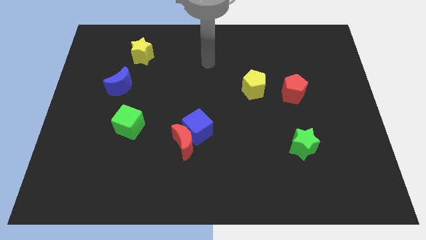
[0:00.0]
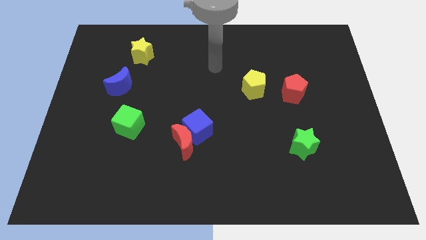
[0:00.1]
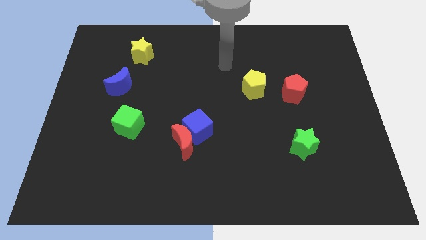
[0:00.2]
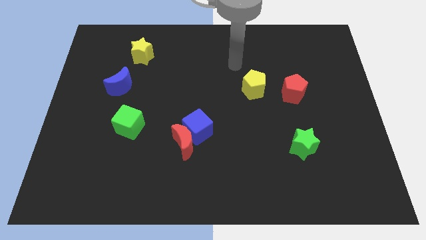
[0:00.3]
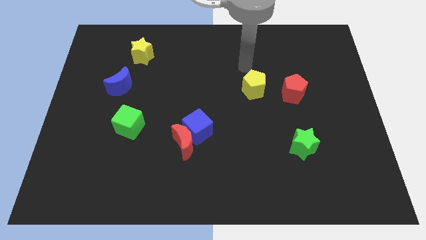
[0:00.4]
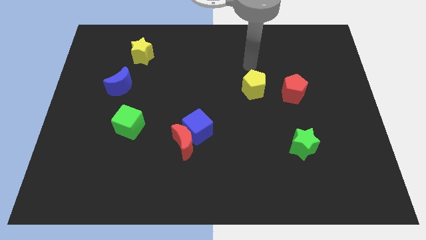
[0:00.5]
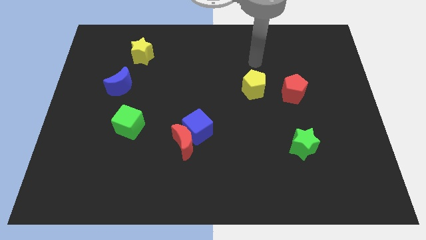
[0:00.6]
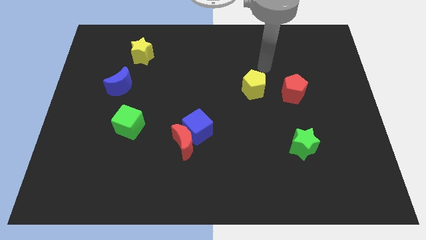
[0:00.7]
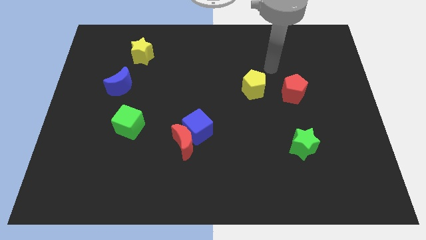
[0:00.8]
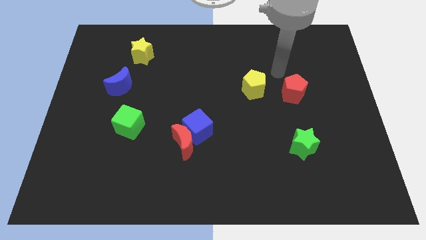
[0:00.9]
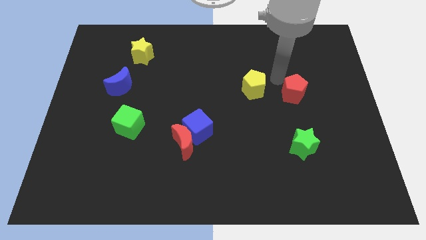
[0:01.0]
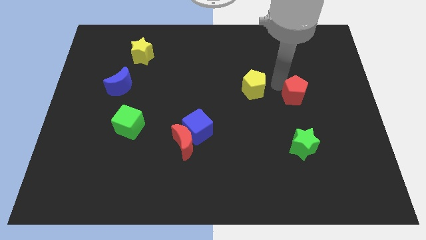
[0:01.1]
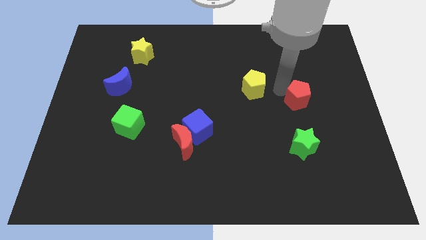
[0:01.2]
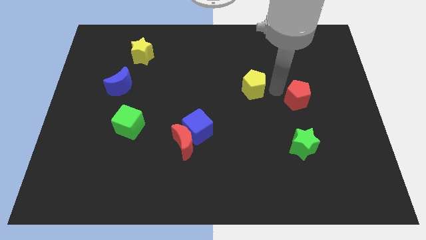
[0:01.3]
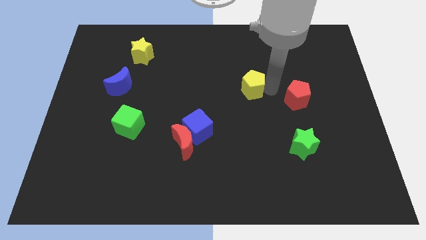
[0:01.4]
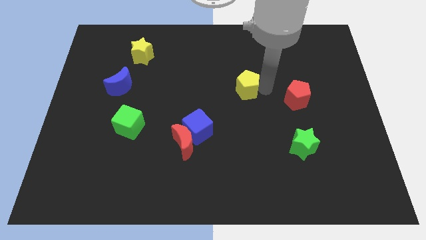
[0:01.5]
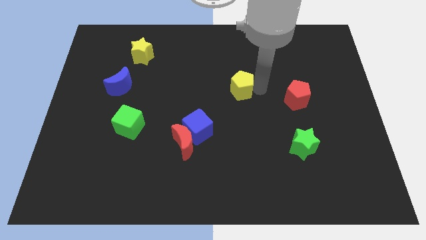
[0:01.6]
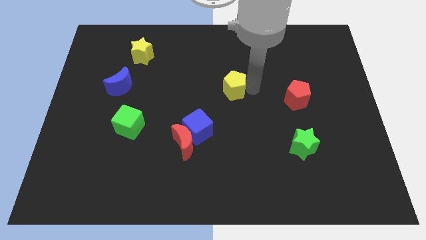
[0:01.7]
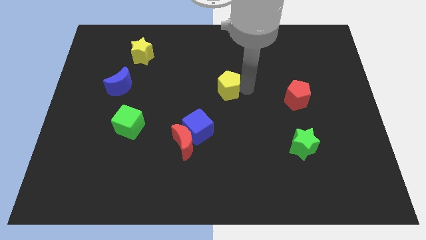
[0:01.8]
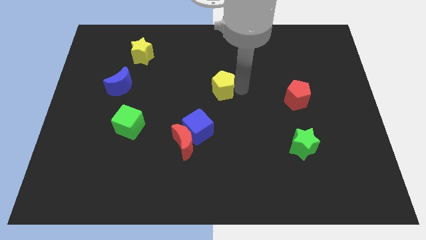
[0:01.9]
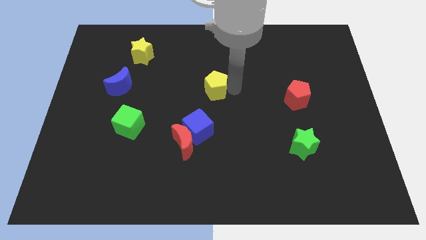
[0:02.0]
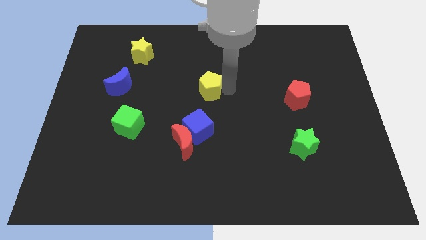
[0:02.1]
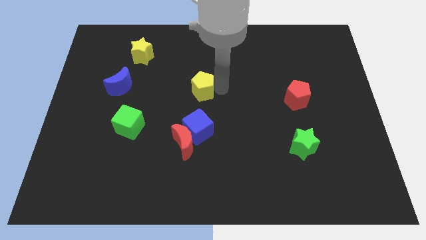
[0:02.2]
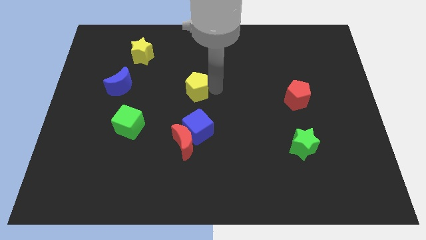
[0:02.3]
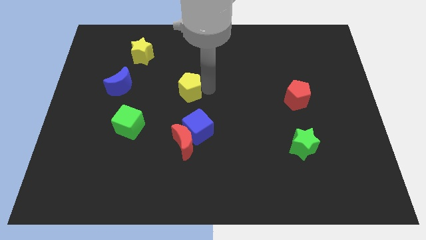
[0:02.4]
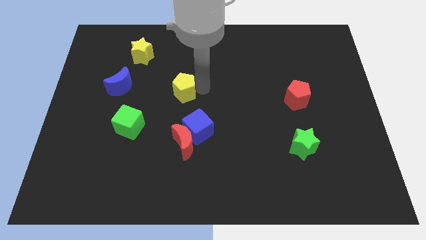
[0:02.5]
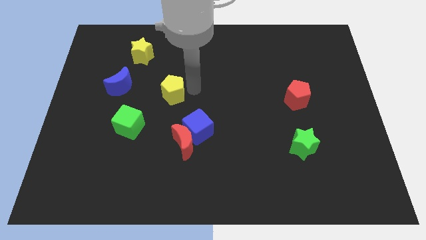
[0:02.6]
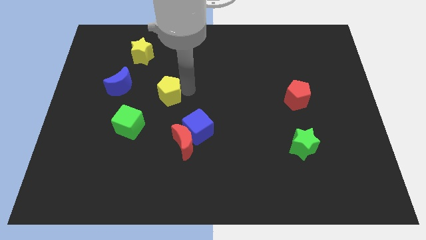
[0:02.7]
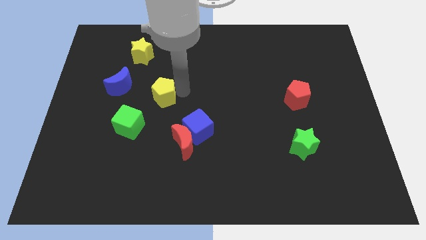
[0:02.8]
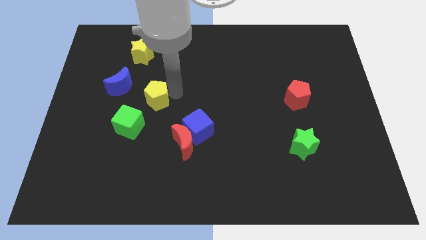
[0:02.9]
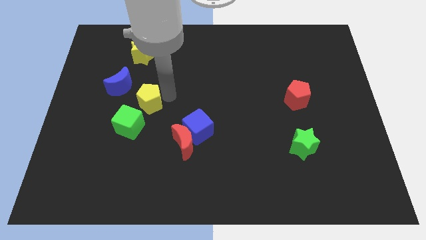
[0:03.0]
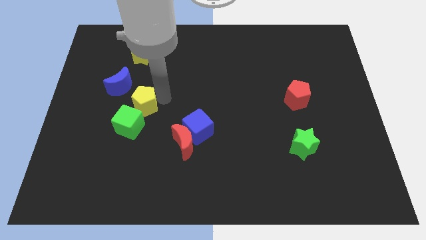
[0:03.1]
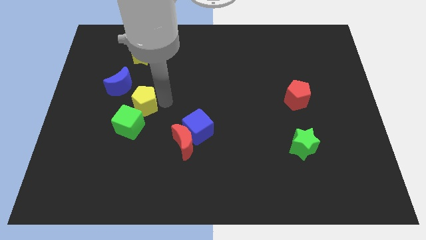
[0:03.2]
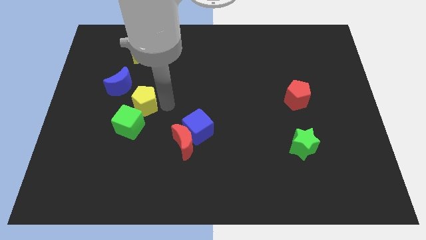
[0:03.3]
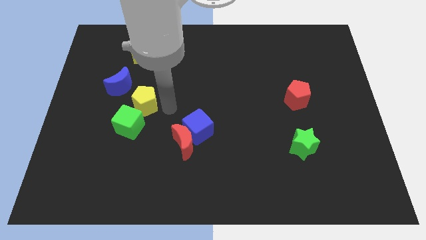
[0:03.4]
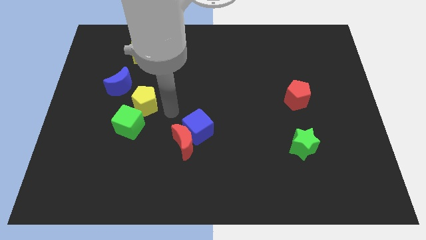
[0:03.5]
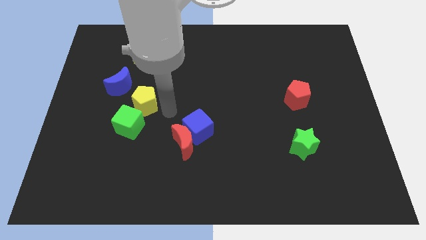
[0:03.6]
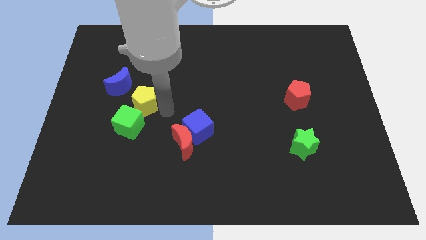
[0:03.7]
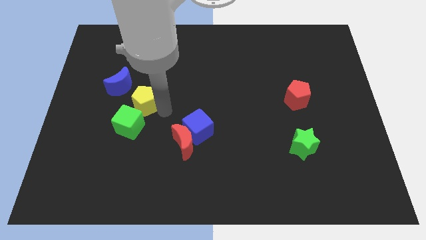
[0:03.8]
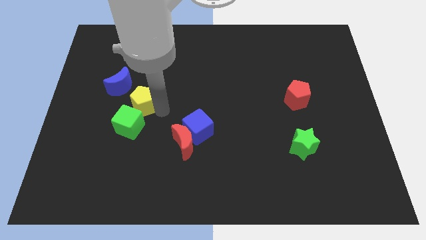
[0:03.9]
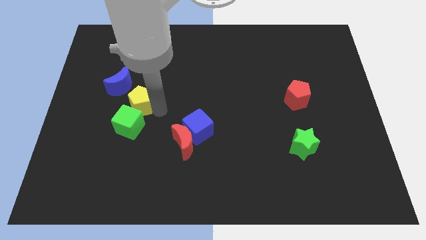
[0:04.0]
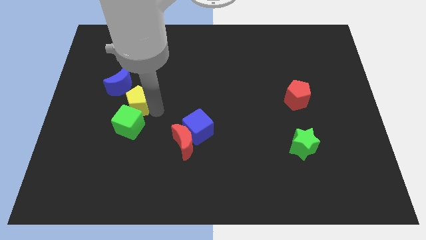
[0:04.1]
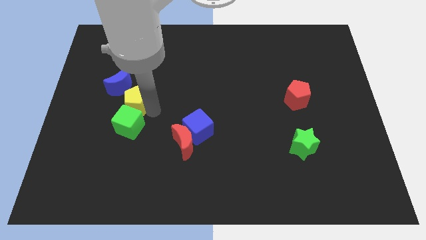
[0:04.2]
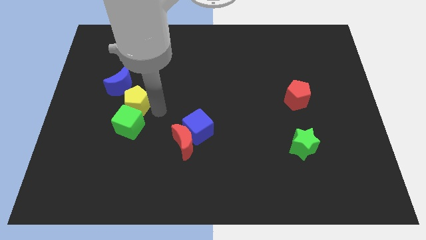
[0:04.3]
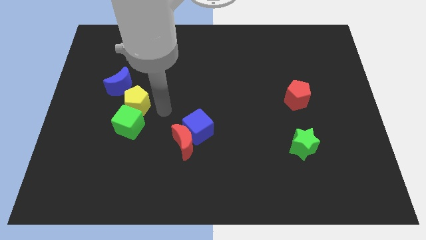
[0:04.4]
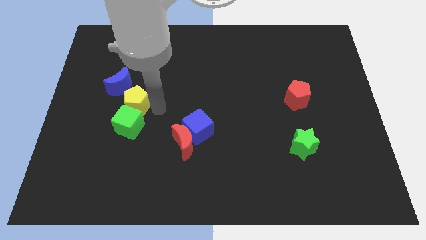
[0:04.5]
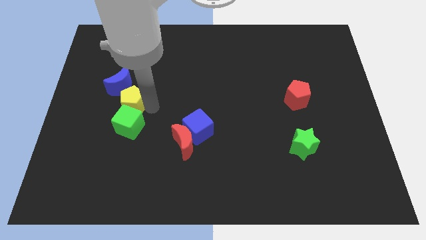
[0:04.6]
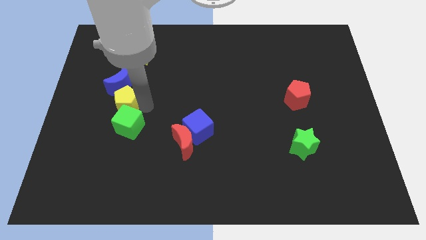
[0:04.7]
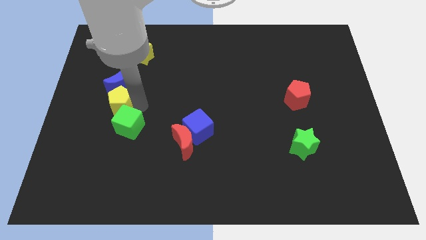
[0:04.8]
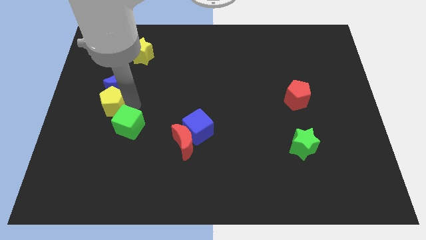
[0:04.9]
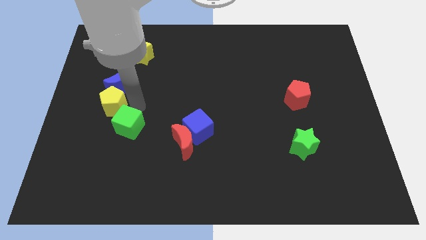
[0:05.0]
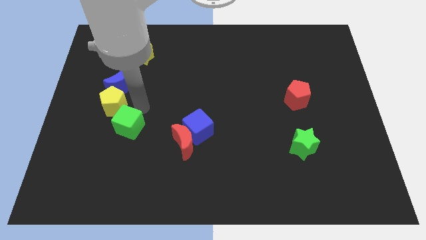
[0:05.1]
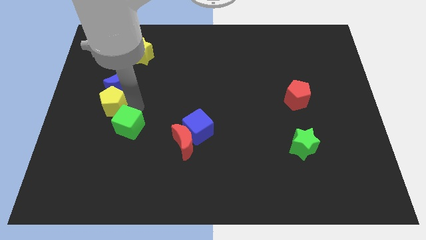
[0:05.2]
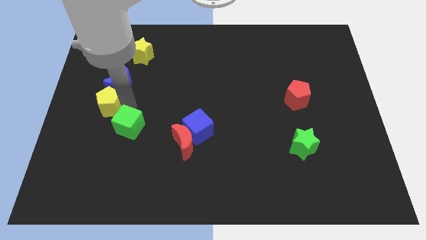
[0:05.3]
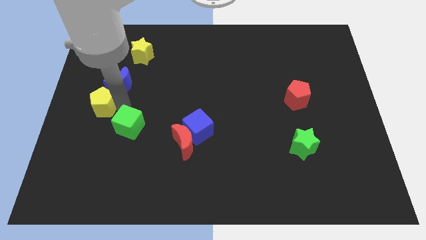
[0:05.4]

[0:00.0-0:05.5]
push the yellow pentagon to the left side
